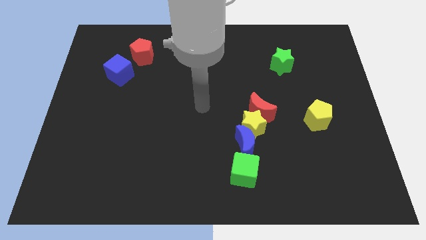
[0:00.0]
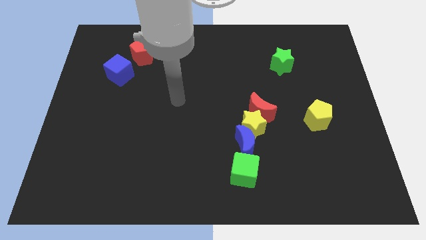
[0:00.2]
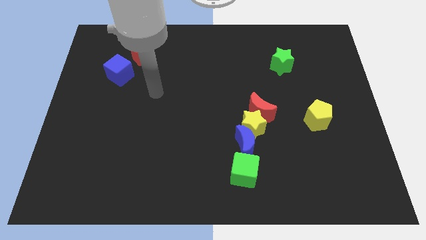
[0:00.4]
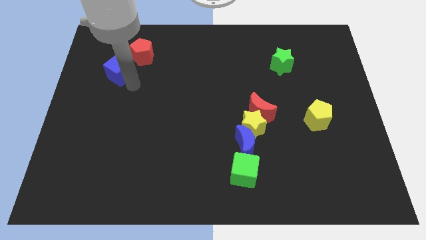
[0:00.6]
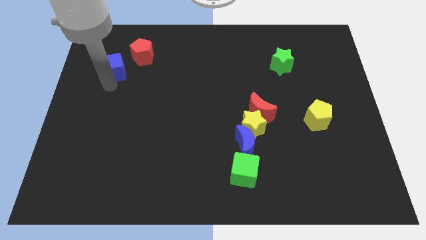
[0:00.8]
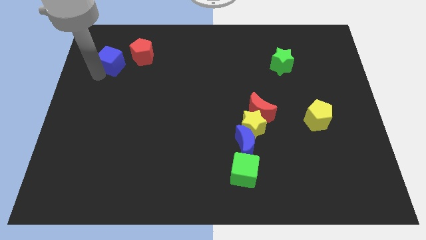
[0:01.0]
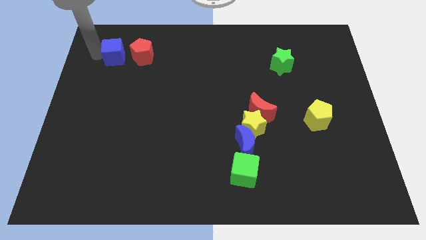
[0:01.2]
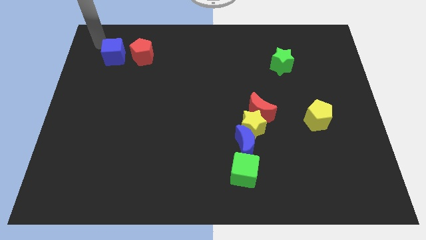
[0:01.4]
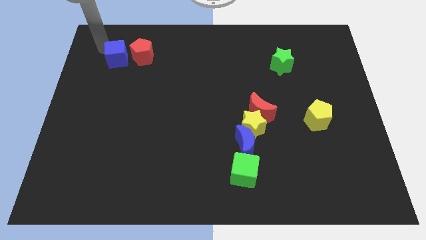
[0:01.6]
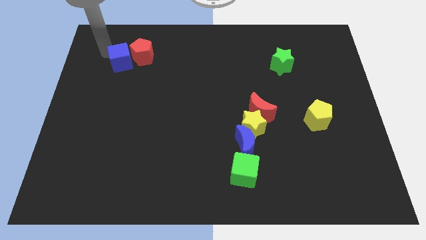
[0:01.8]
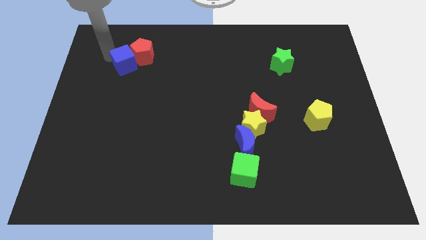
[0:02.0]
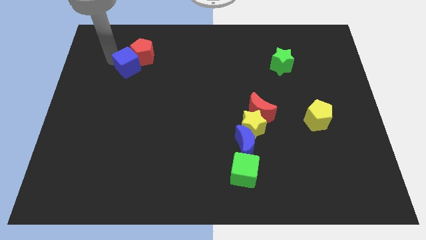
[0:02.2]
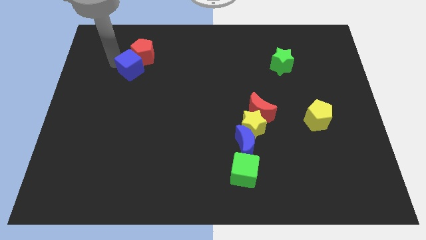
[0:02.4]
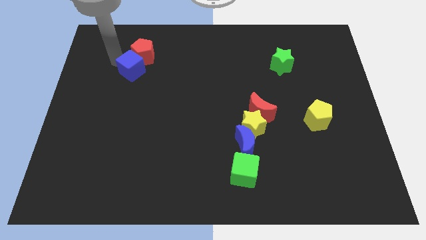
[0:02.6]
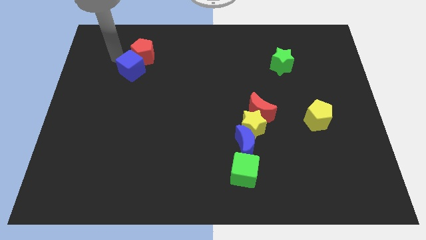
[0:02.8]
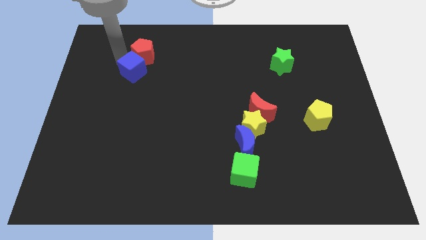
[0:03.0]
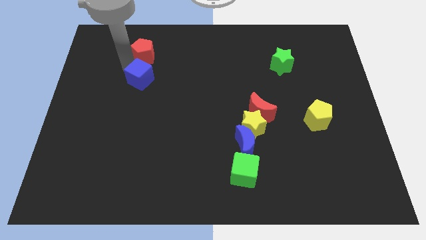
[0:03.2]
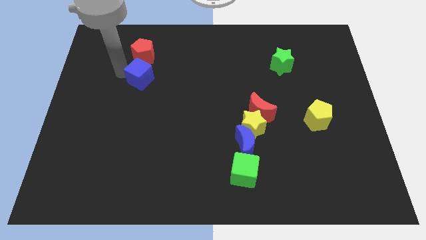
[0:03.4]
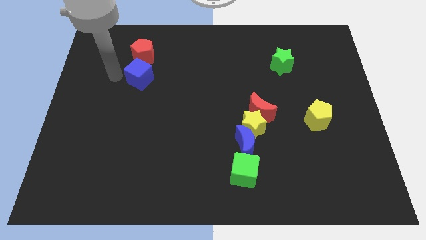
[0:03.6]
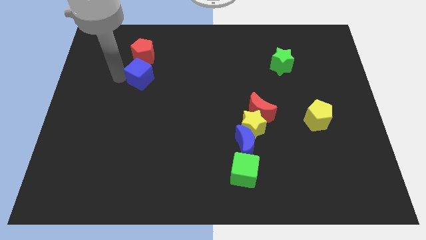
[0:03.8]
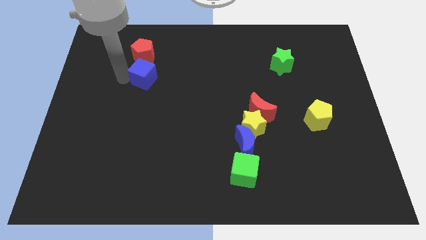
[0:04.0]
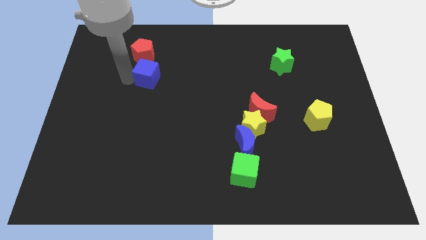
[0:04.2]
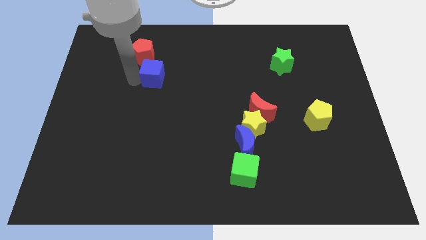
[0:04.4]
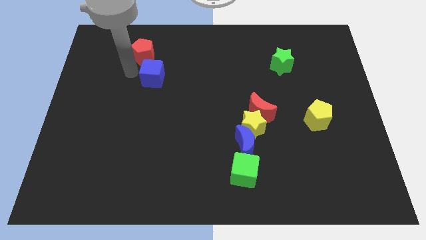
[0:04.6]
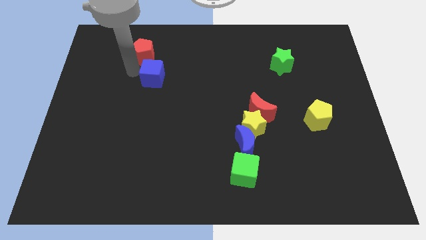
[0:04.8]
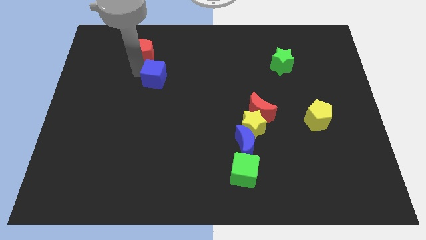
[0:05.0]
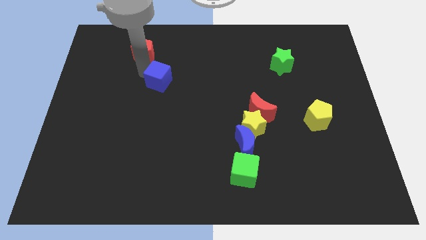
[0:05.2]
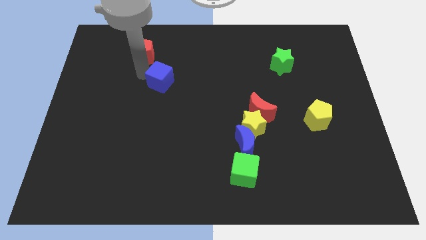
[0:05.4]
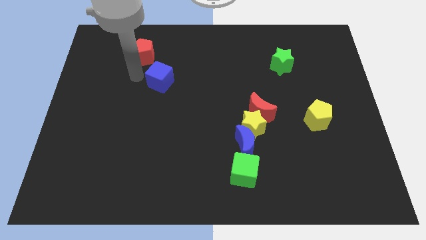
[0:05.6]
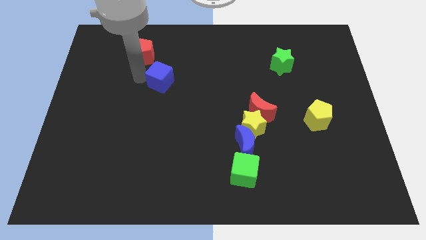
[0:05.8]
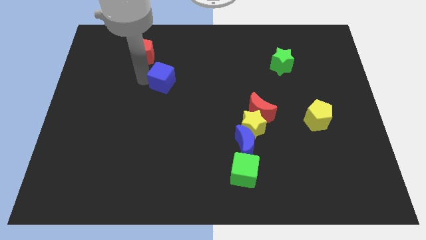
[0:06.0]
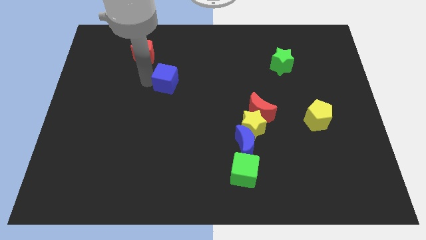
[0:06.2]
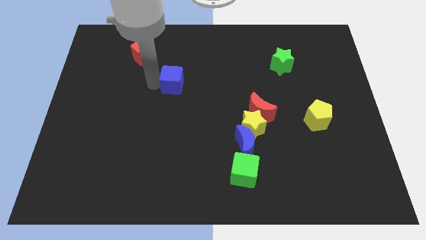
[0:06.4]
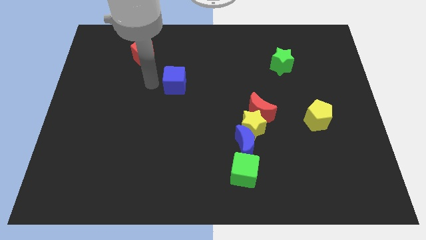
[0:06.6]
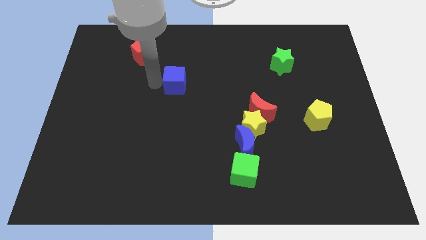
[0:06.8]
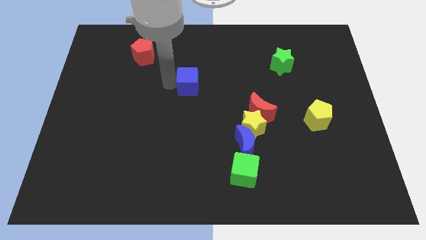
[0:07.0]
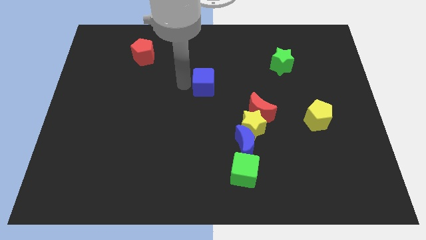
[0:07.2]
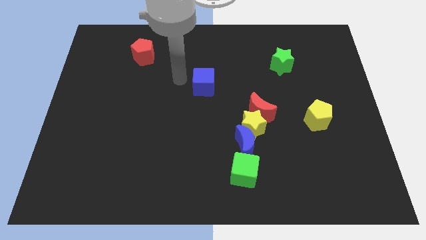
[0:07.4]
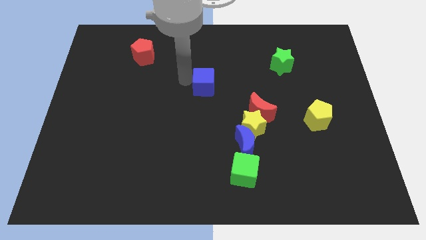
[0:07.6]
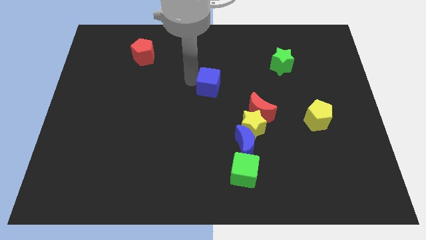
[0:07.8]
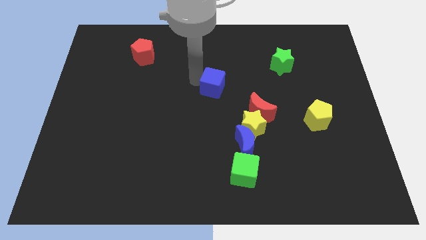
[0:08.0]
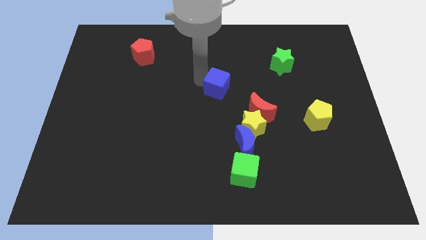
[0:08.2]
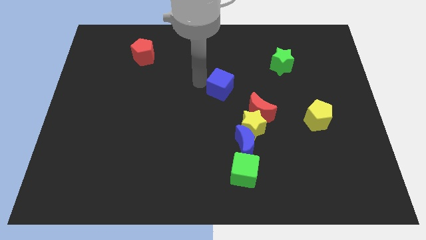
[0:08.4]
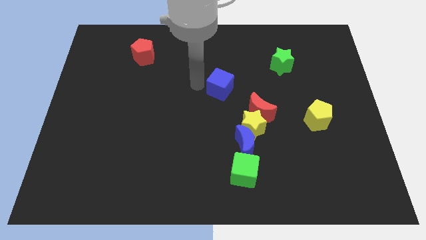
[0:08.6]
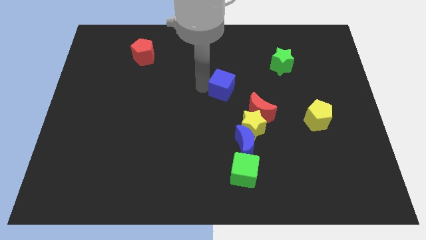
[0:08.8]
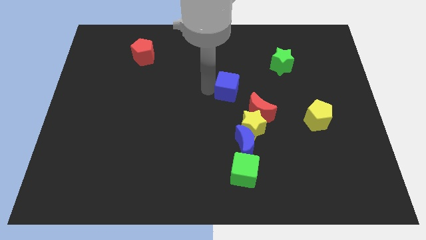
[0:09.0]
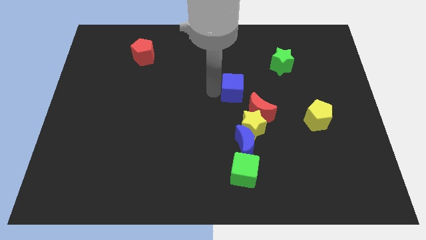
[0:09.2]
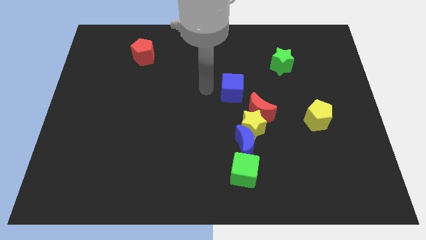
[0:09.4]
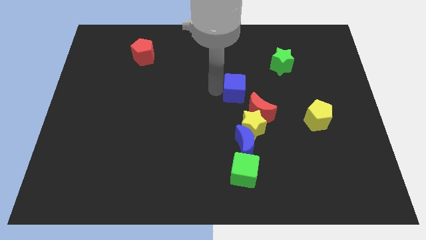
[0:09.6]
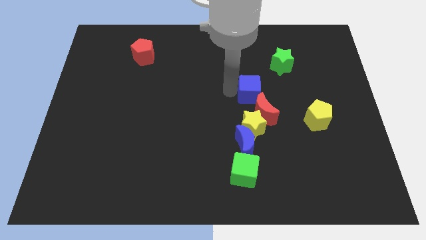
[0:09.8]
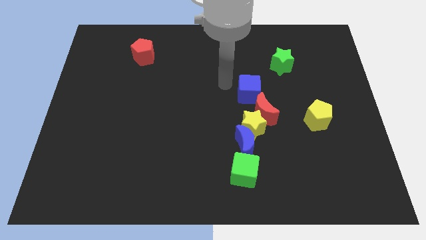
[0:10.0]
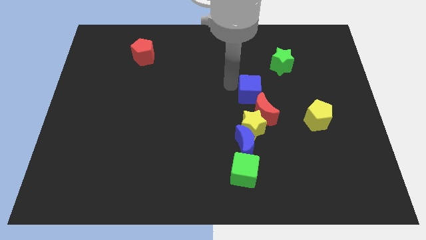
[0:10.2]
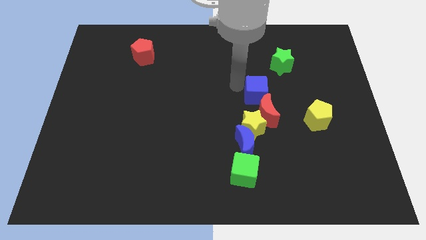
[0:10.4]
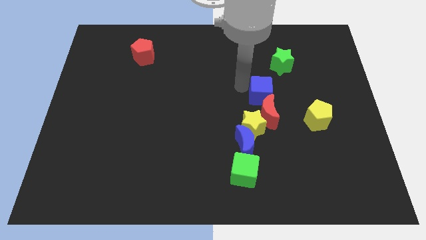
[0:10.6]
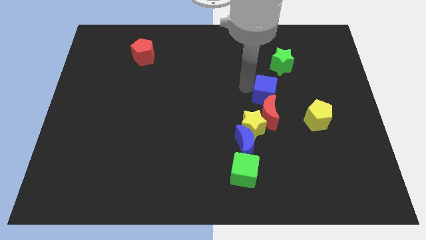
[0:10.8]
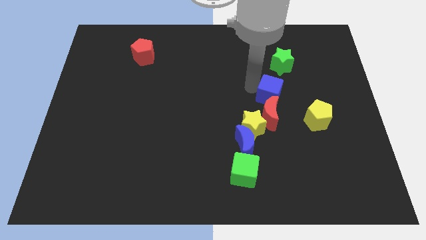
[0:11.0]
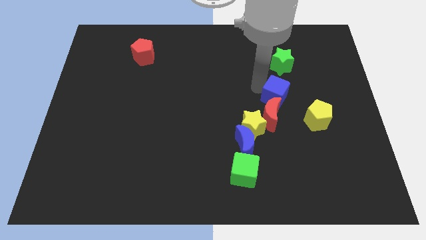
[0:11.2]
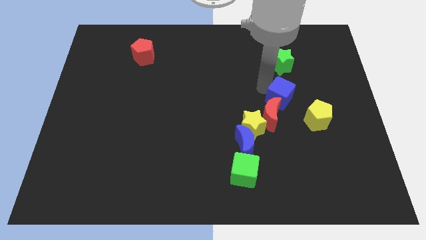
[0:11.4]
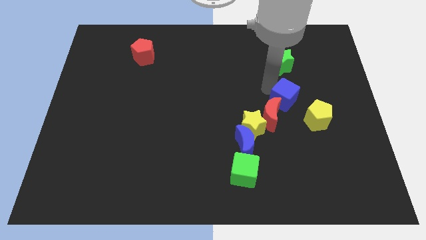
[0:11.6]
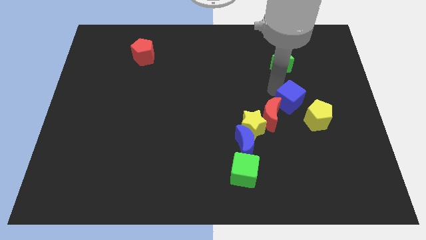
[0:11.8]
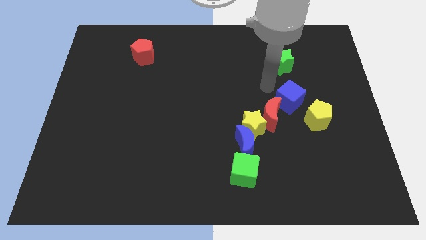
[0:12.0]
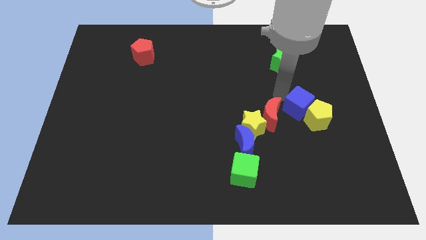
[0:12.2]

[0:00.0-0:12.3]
push the blue cube towards the yellow pentagon

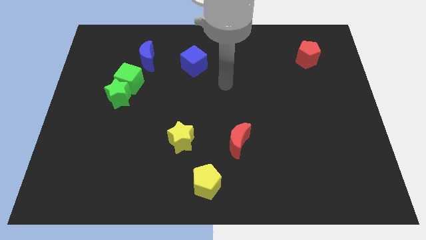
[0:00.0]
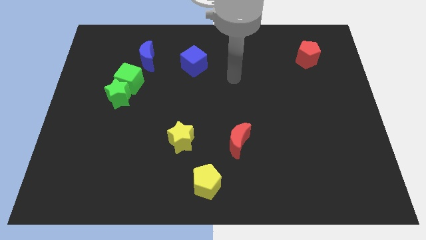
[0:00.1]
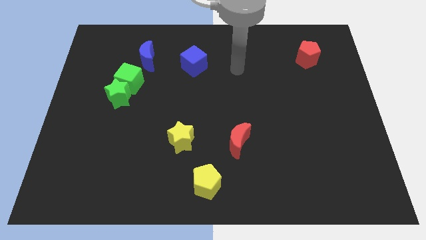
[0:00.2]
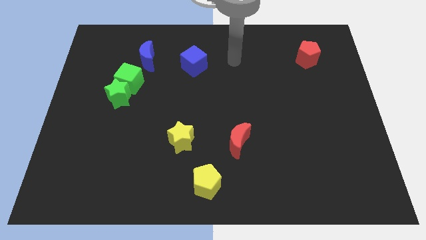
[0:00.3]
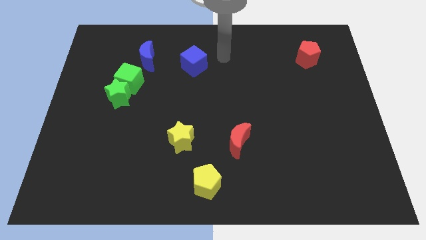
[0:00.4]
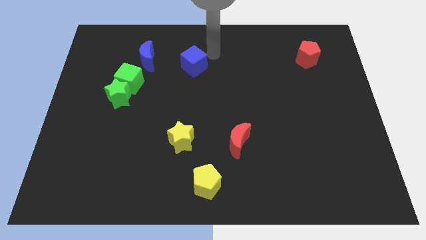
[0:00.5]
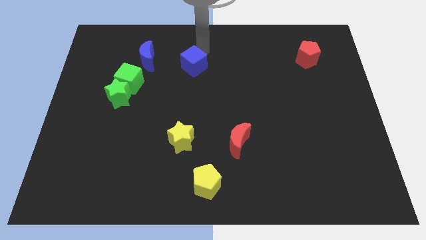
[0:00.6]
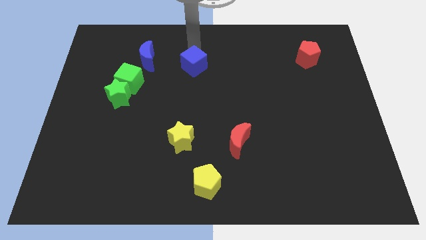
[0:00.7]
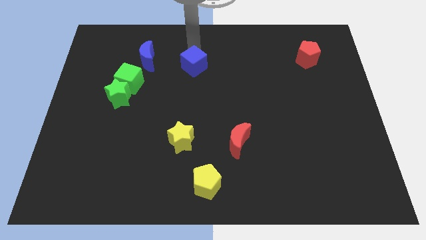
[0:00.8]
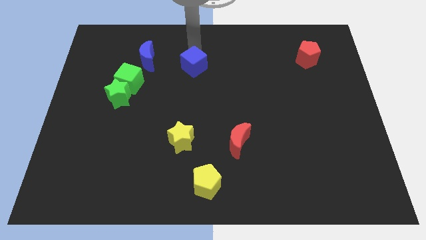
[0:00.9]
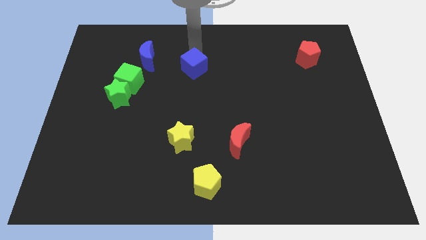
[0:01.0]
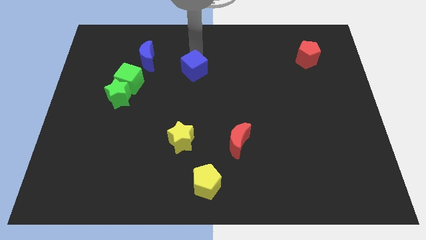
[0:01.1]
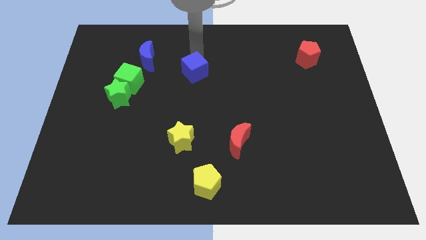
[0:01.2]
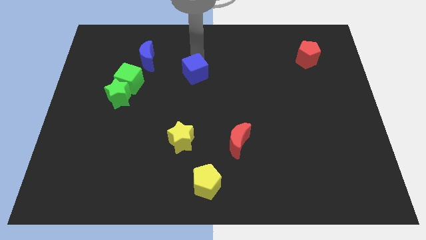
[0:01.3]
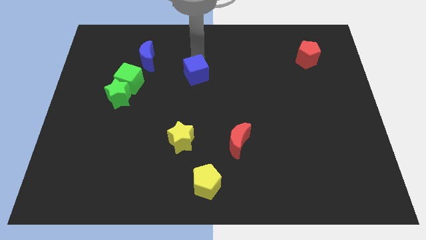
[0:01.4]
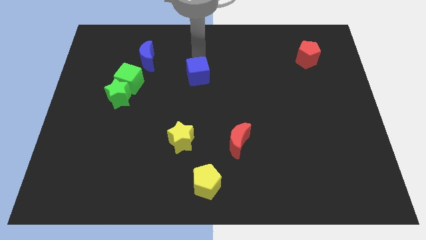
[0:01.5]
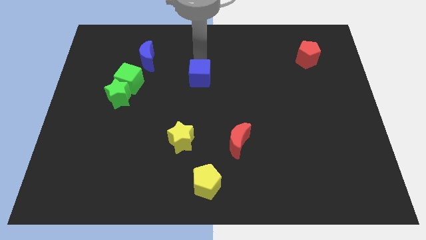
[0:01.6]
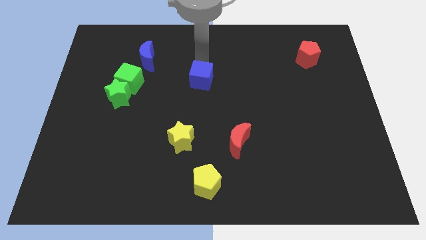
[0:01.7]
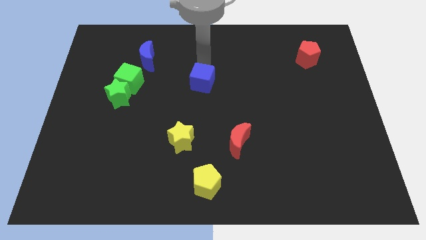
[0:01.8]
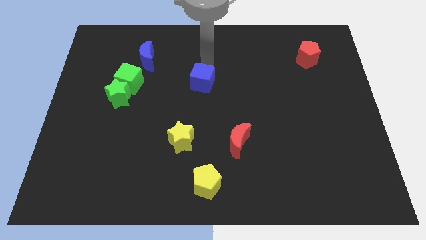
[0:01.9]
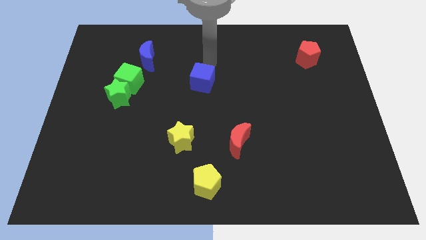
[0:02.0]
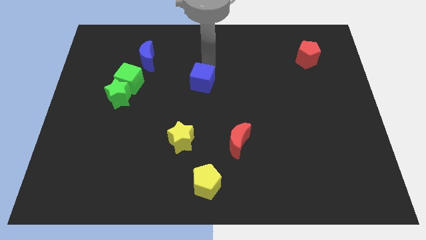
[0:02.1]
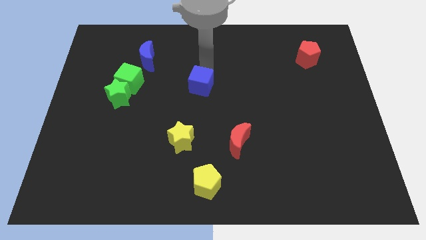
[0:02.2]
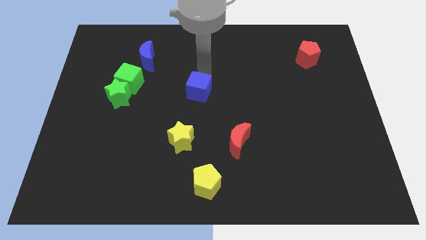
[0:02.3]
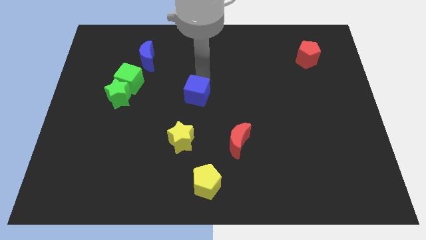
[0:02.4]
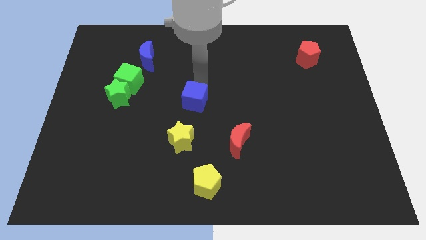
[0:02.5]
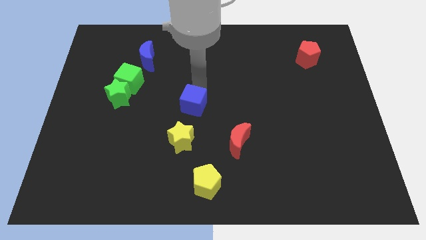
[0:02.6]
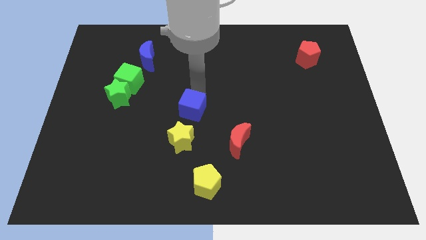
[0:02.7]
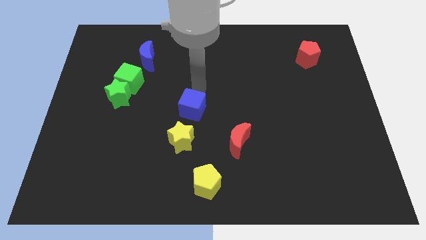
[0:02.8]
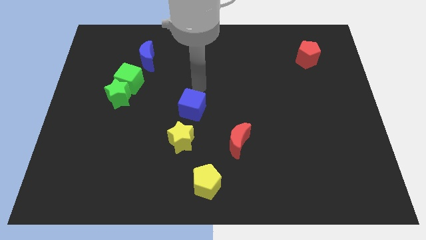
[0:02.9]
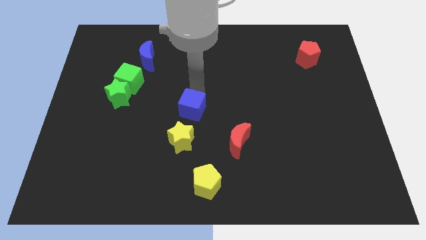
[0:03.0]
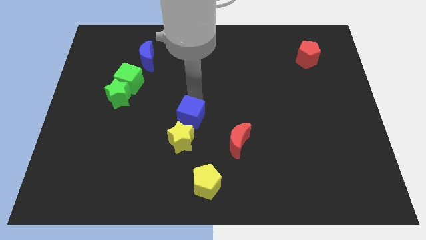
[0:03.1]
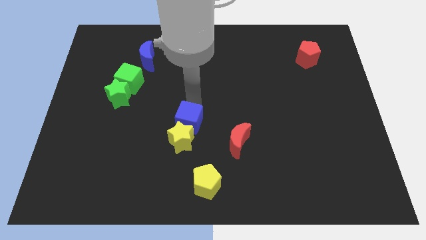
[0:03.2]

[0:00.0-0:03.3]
slide the blue cube towards the yellow star
